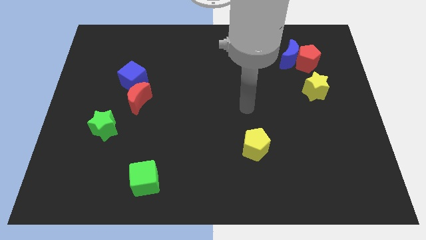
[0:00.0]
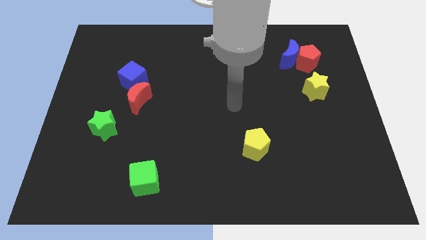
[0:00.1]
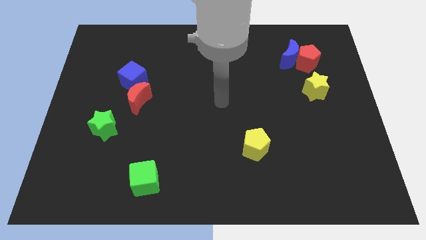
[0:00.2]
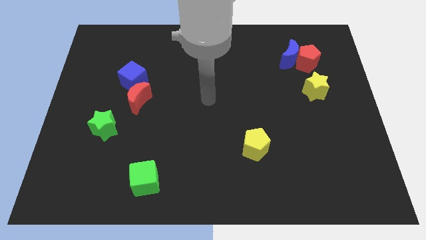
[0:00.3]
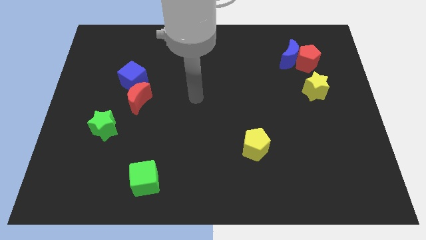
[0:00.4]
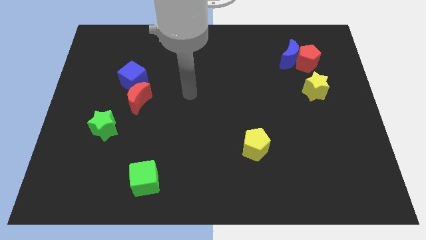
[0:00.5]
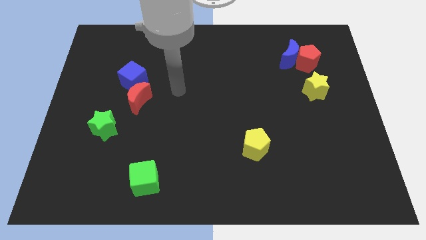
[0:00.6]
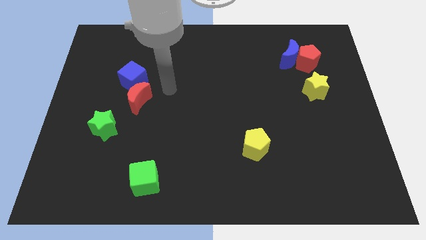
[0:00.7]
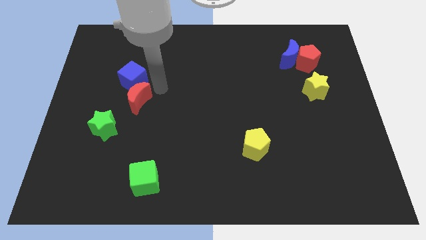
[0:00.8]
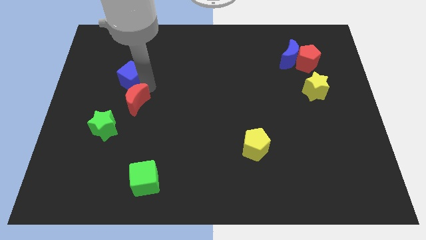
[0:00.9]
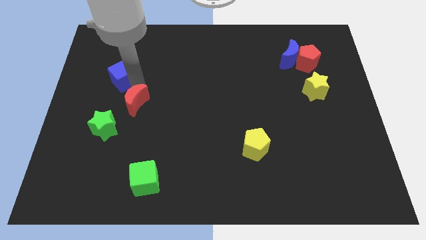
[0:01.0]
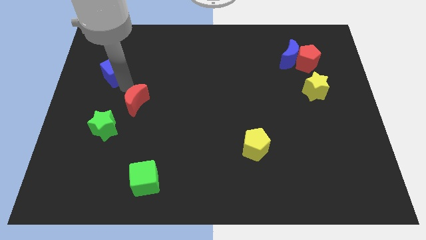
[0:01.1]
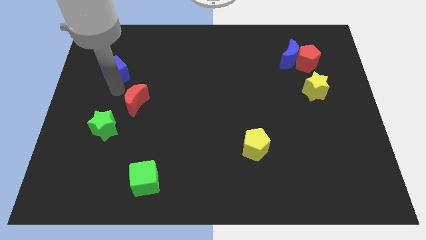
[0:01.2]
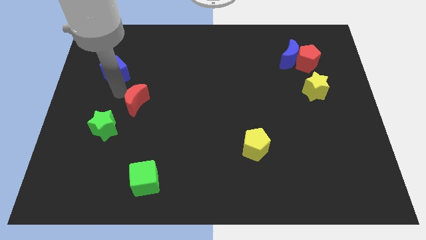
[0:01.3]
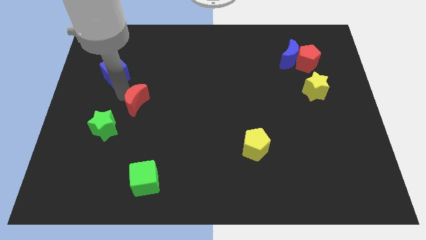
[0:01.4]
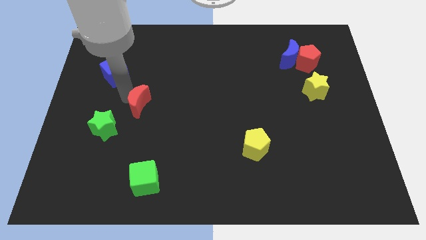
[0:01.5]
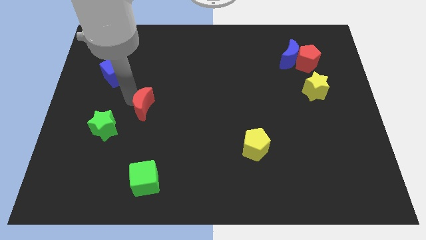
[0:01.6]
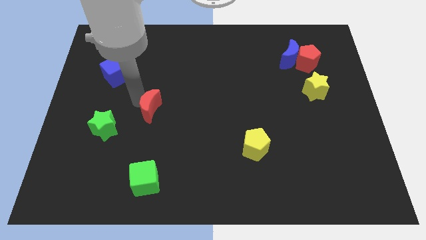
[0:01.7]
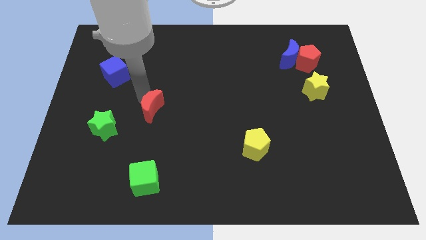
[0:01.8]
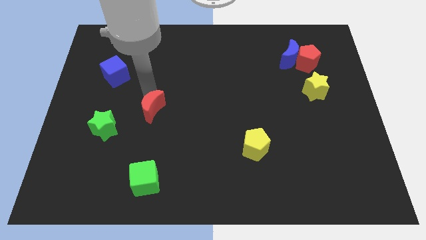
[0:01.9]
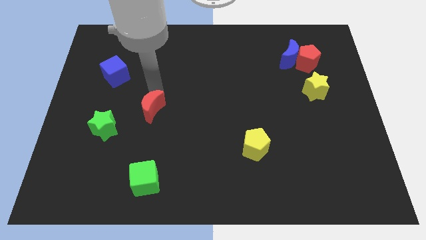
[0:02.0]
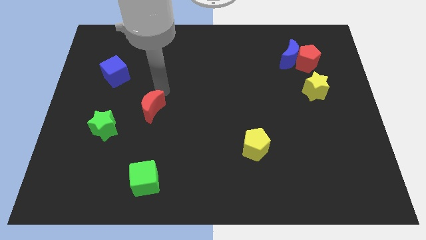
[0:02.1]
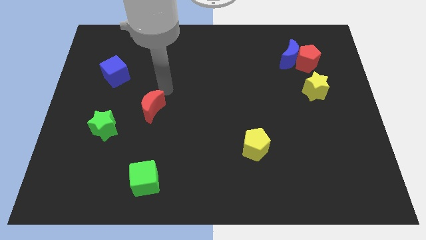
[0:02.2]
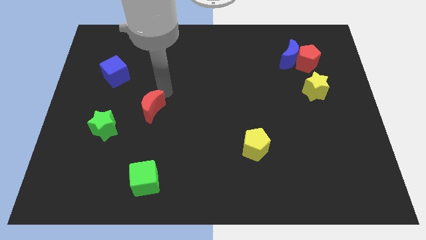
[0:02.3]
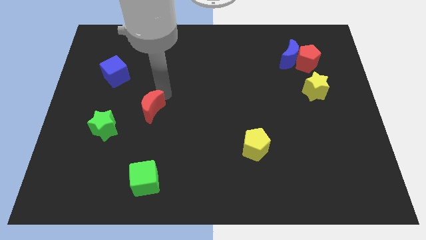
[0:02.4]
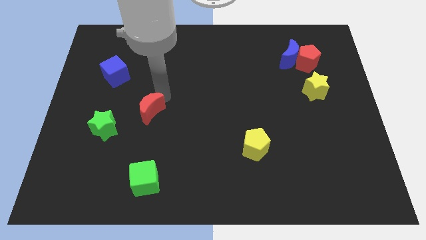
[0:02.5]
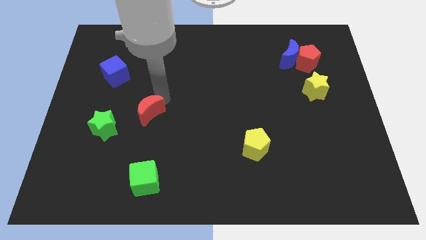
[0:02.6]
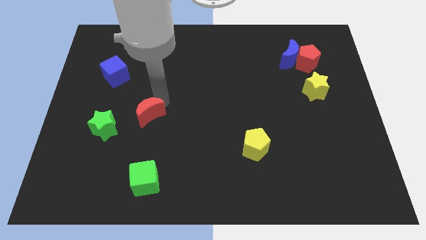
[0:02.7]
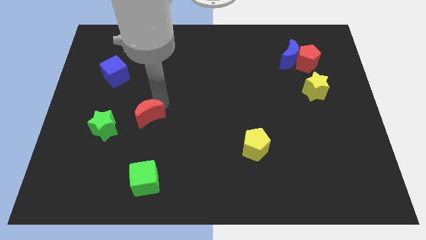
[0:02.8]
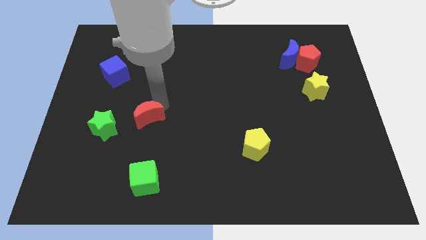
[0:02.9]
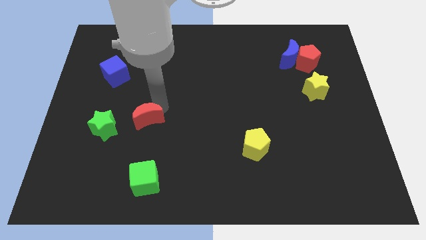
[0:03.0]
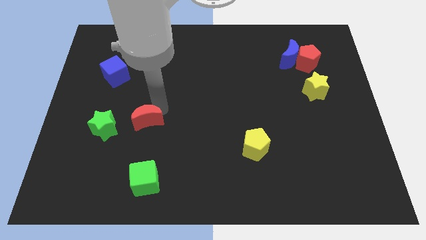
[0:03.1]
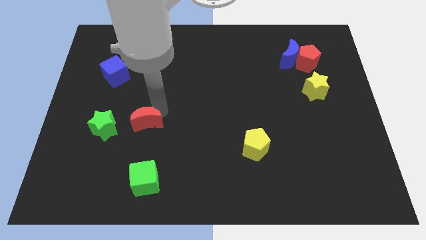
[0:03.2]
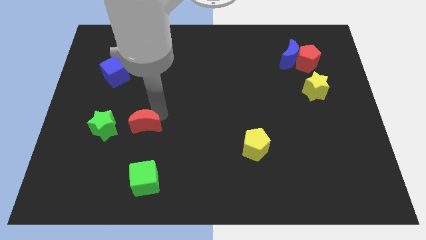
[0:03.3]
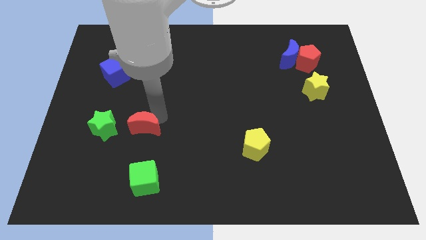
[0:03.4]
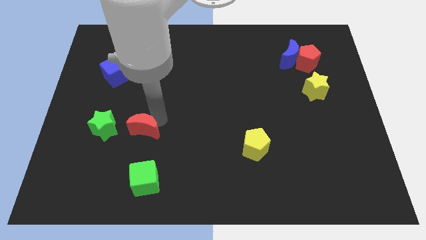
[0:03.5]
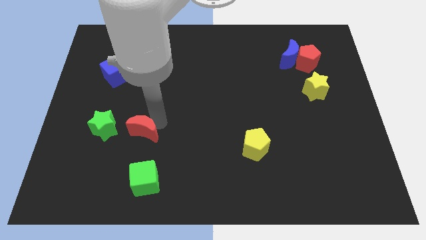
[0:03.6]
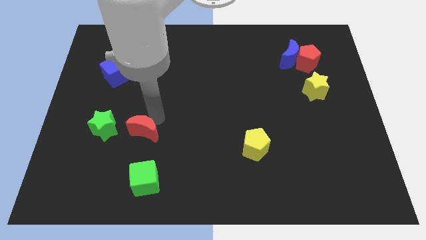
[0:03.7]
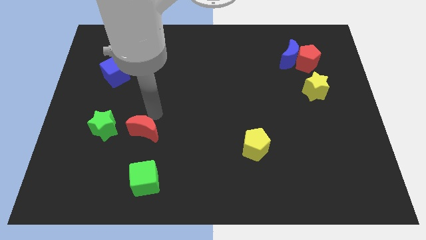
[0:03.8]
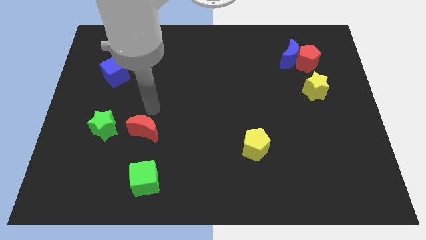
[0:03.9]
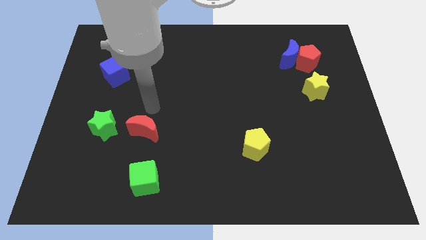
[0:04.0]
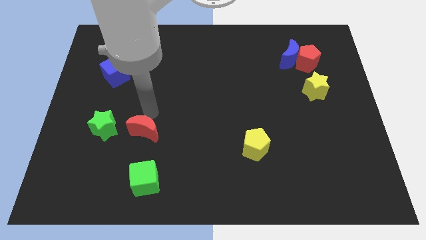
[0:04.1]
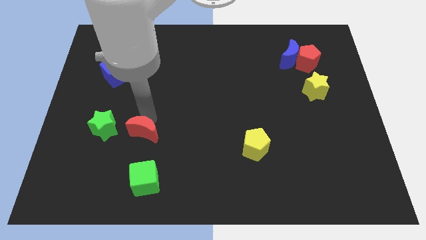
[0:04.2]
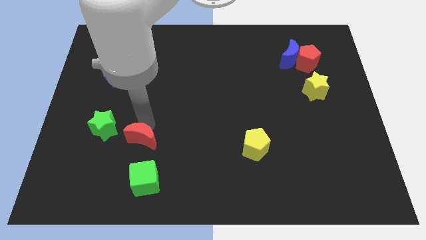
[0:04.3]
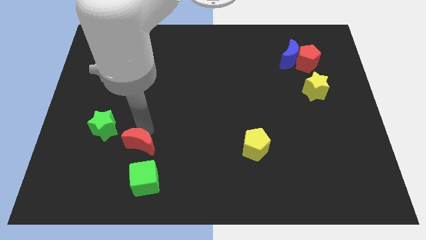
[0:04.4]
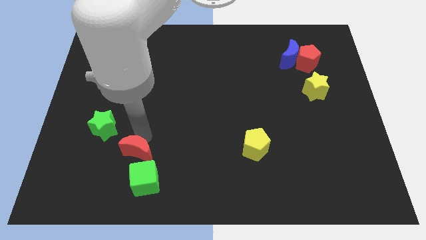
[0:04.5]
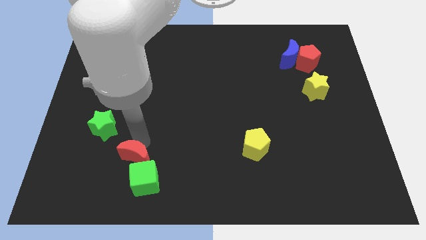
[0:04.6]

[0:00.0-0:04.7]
put the red moon next to the green cube

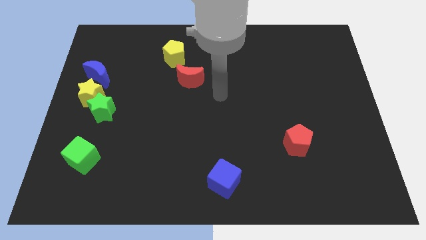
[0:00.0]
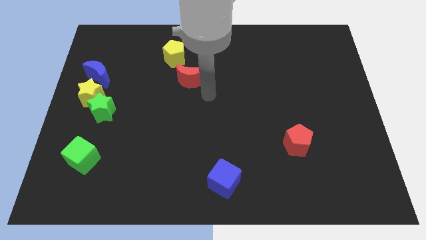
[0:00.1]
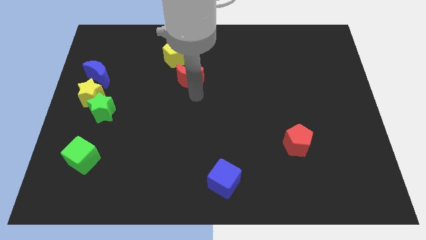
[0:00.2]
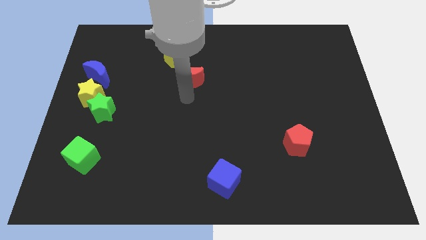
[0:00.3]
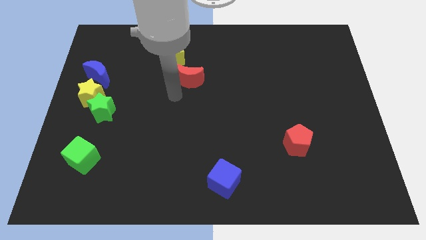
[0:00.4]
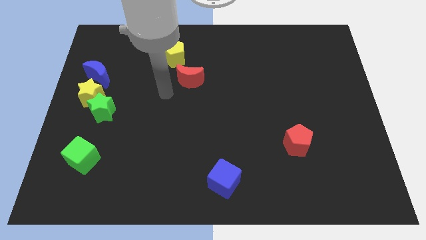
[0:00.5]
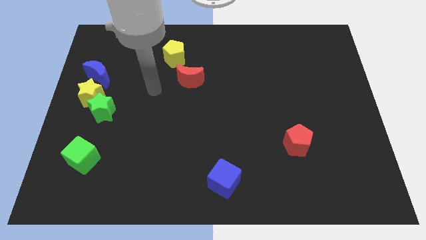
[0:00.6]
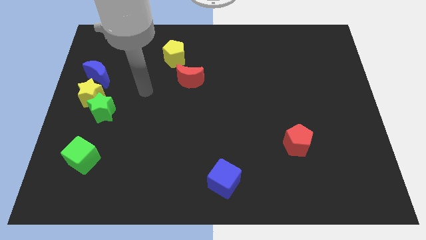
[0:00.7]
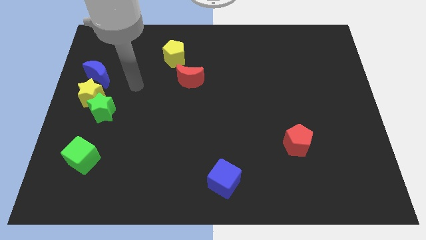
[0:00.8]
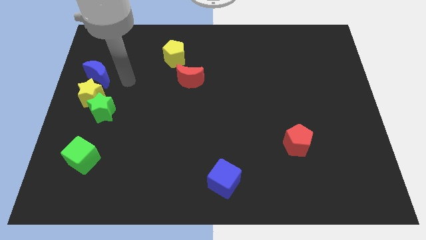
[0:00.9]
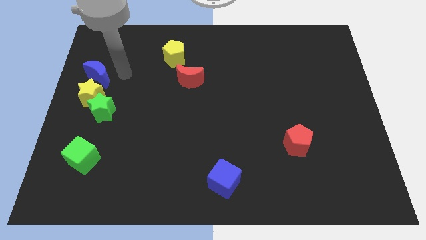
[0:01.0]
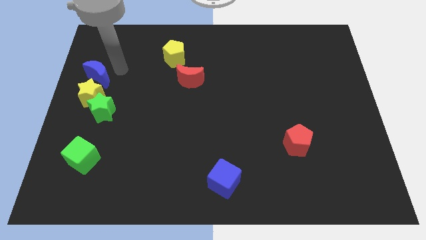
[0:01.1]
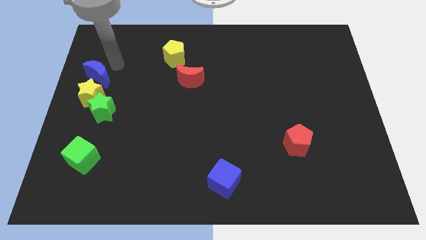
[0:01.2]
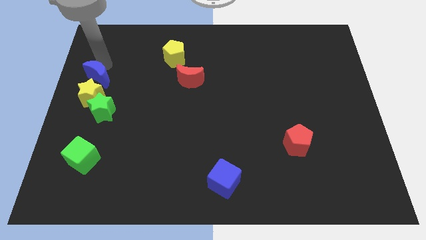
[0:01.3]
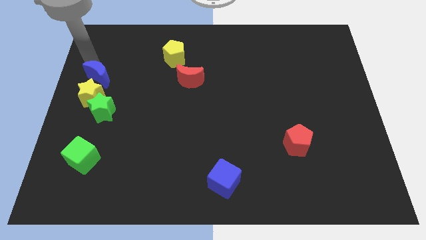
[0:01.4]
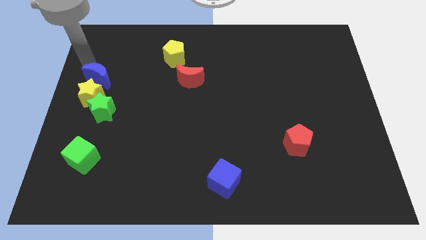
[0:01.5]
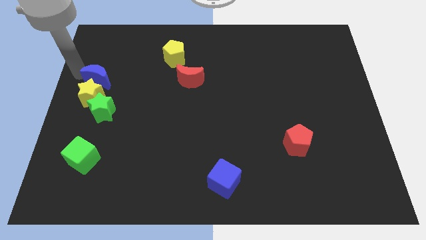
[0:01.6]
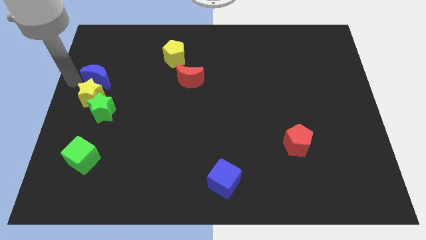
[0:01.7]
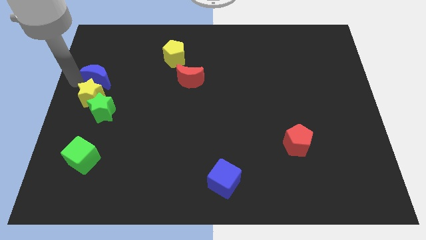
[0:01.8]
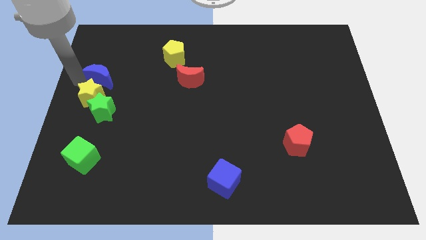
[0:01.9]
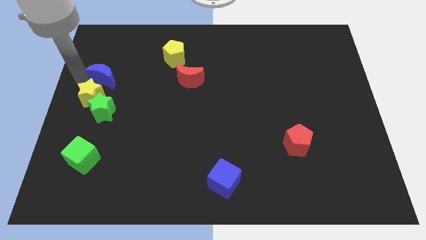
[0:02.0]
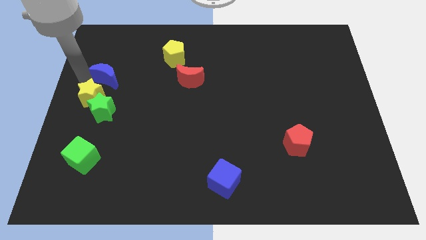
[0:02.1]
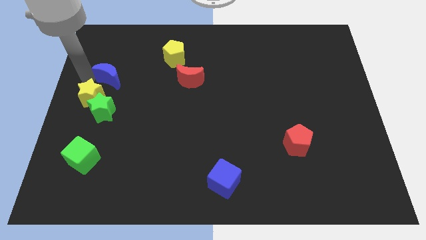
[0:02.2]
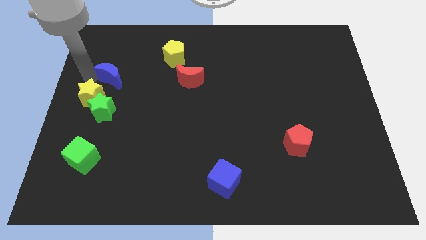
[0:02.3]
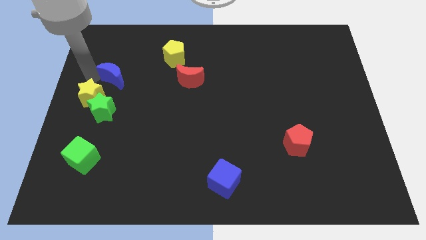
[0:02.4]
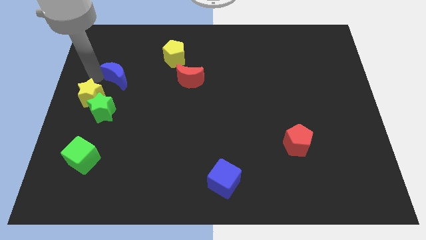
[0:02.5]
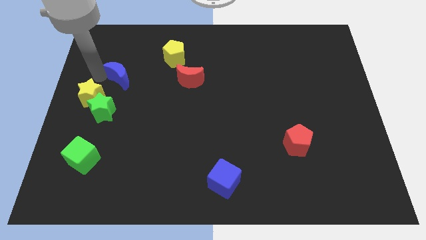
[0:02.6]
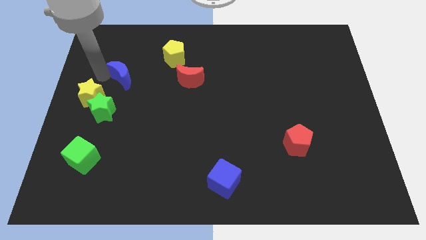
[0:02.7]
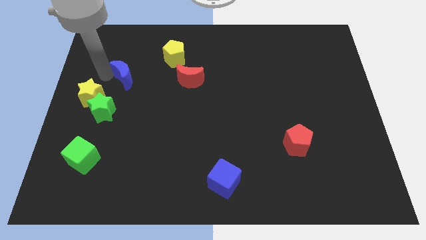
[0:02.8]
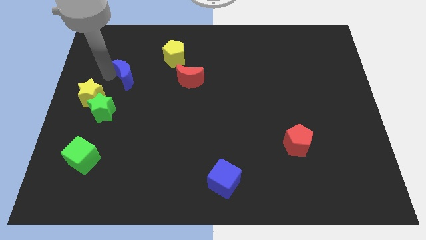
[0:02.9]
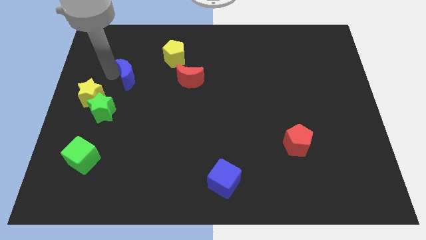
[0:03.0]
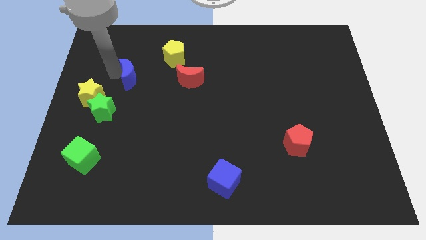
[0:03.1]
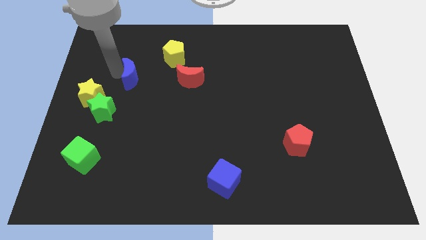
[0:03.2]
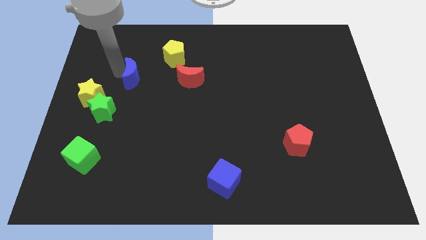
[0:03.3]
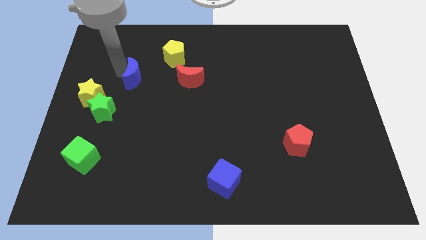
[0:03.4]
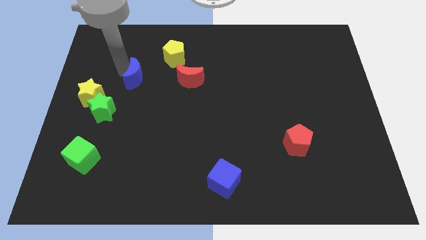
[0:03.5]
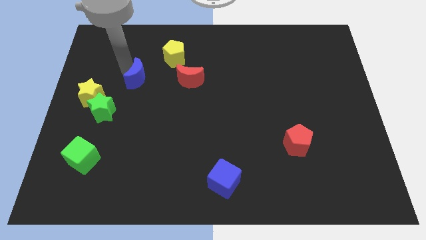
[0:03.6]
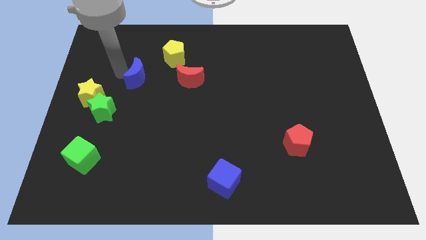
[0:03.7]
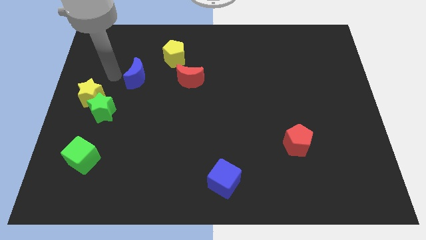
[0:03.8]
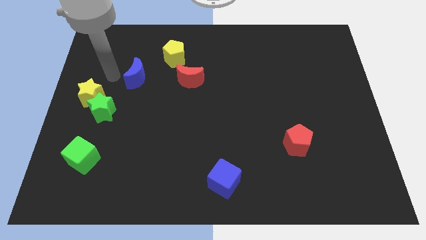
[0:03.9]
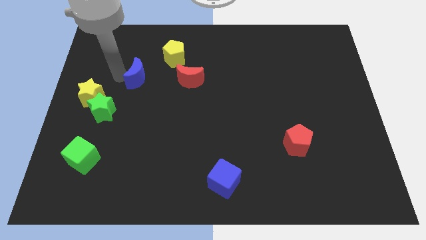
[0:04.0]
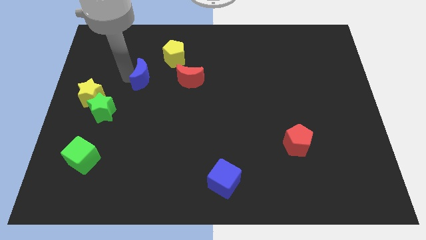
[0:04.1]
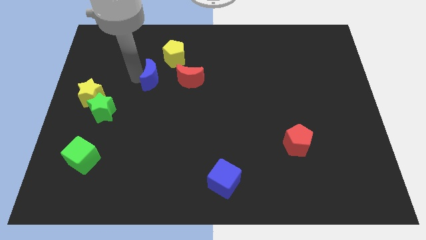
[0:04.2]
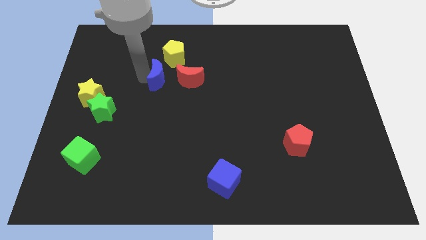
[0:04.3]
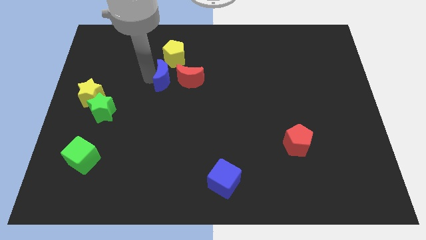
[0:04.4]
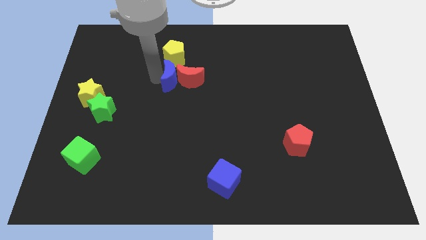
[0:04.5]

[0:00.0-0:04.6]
push the blue moon next to the red moon
